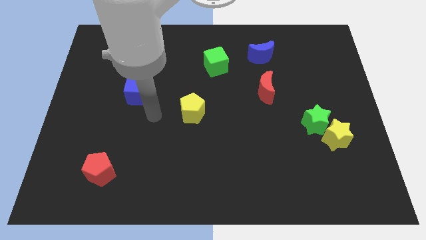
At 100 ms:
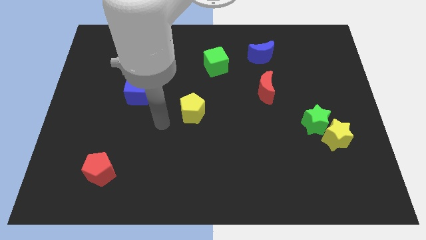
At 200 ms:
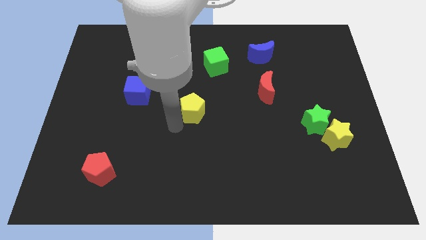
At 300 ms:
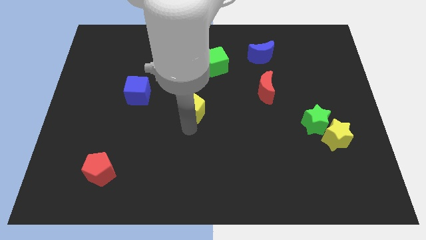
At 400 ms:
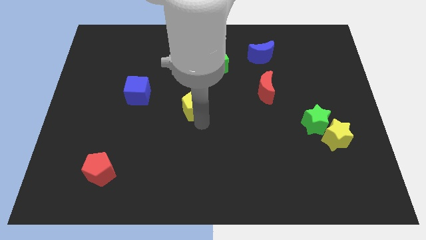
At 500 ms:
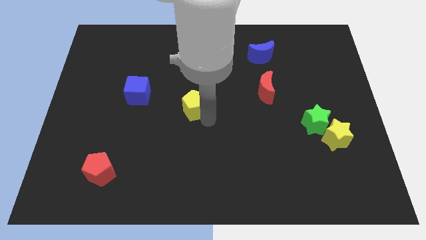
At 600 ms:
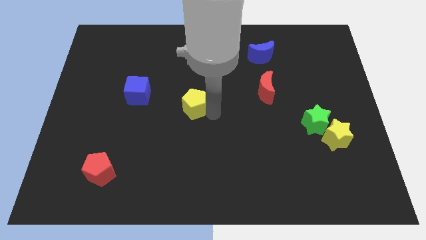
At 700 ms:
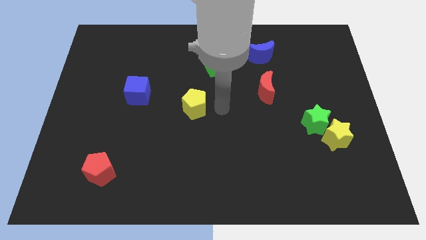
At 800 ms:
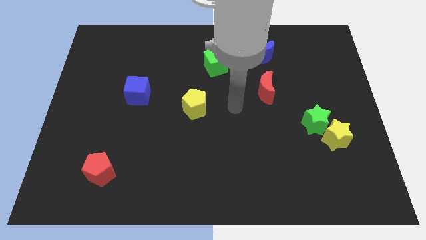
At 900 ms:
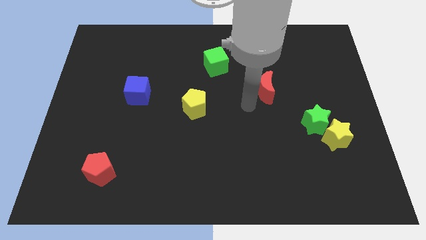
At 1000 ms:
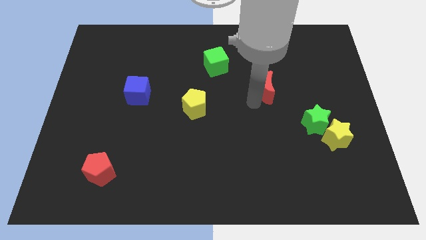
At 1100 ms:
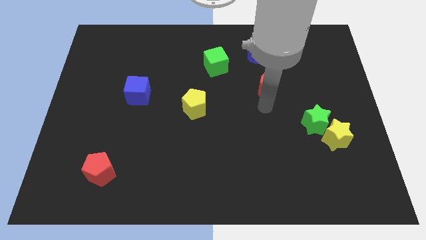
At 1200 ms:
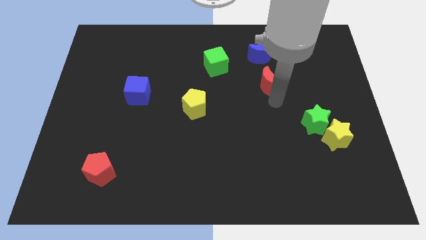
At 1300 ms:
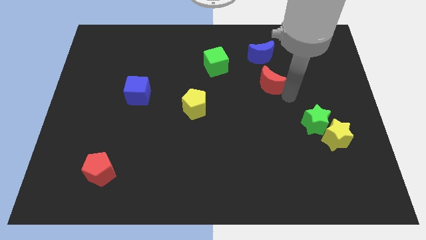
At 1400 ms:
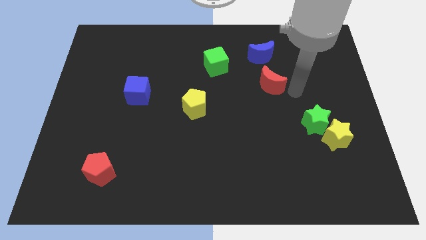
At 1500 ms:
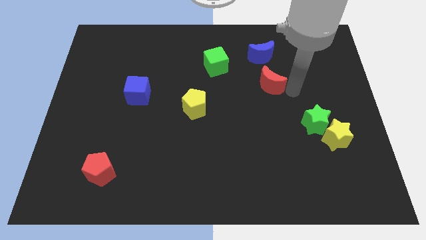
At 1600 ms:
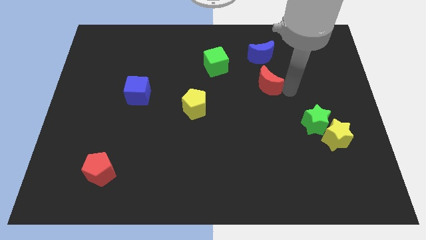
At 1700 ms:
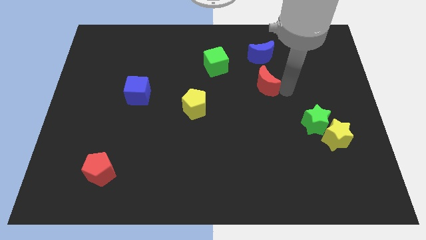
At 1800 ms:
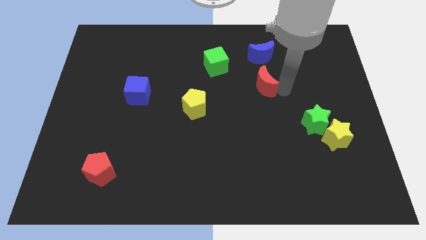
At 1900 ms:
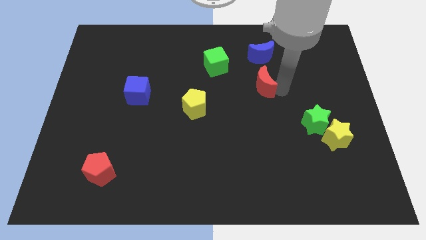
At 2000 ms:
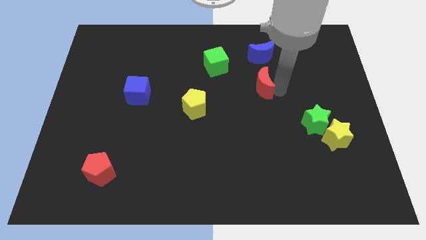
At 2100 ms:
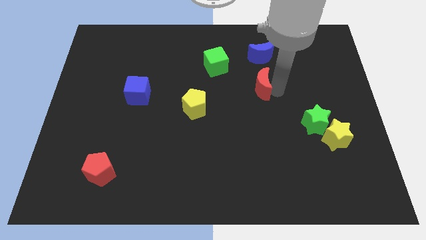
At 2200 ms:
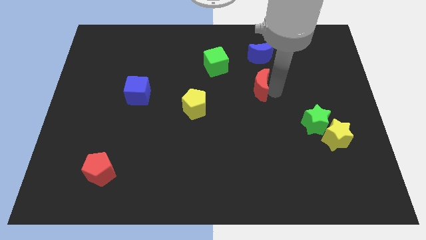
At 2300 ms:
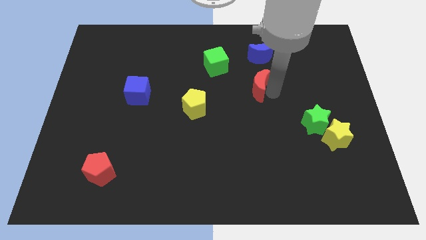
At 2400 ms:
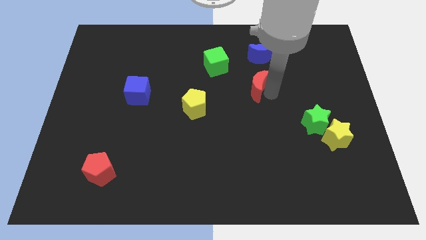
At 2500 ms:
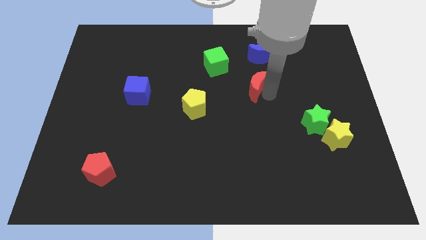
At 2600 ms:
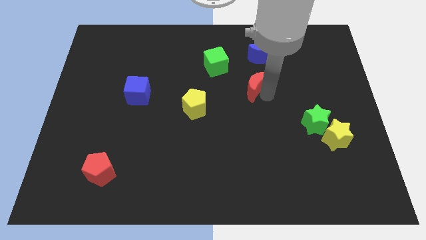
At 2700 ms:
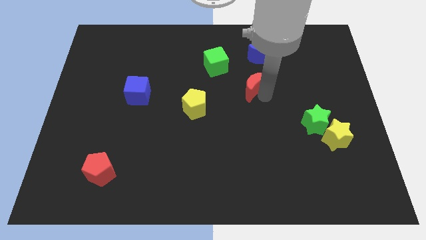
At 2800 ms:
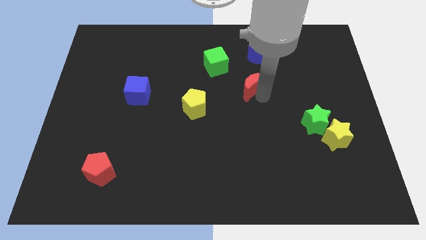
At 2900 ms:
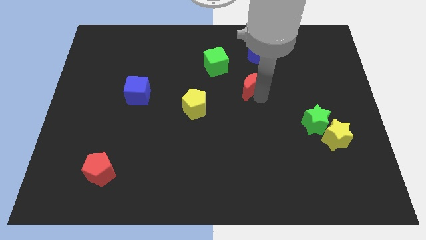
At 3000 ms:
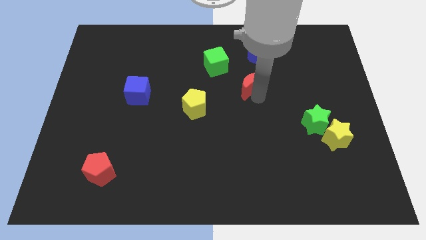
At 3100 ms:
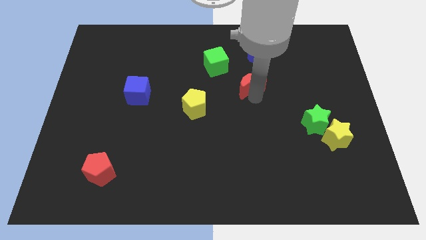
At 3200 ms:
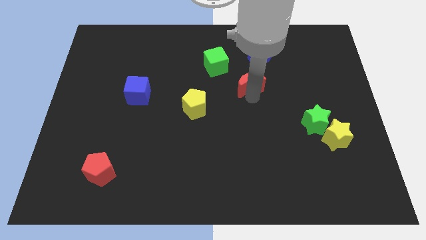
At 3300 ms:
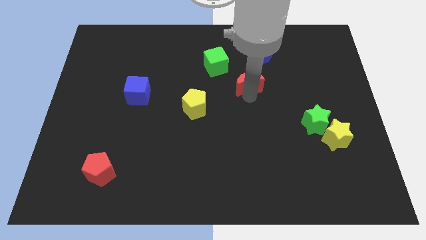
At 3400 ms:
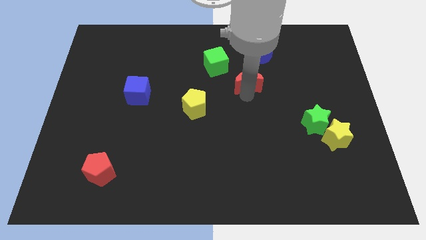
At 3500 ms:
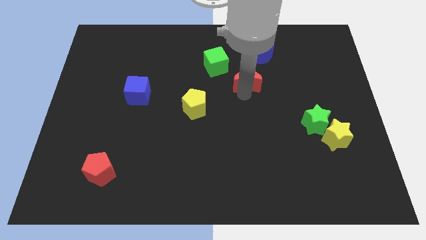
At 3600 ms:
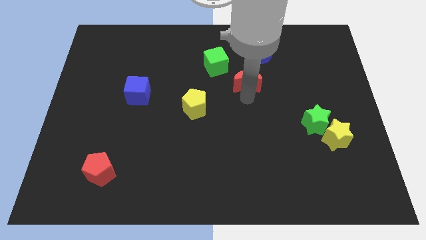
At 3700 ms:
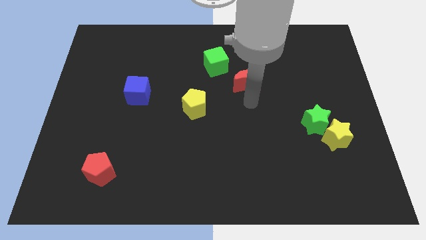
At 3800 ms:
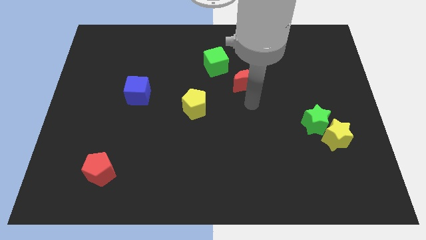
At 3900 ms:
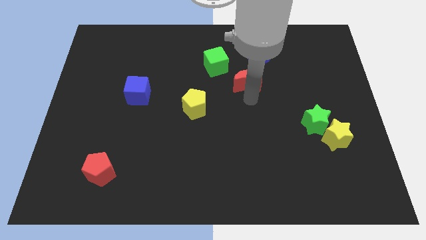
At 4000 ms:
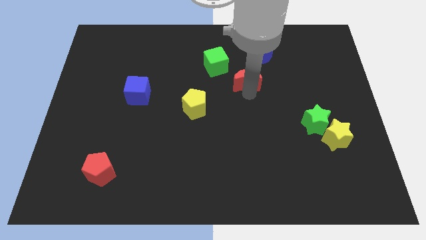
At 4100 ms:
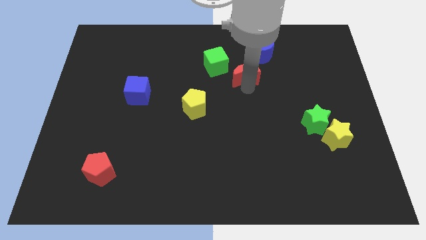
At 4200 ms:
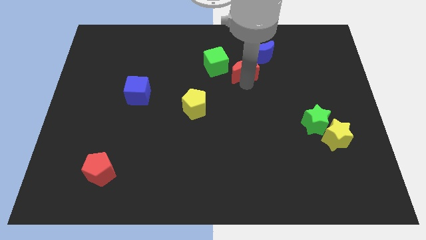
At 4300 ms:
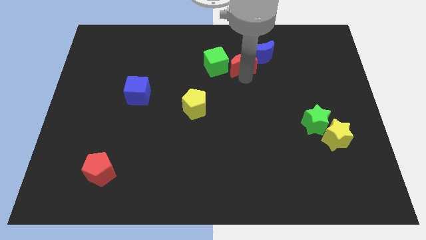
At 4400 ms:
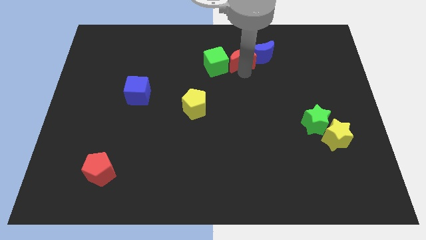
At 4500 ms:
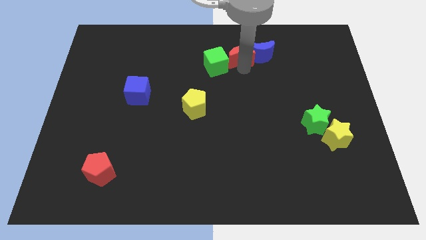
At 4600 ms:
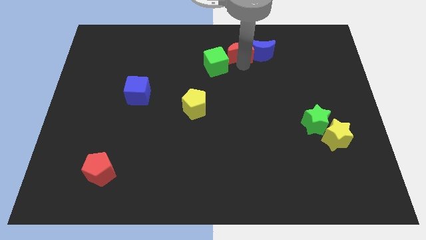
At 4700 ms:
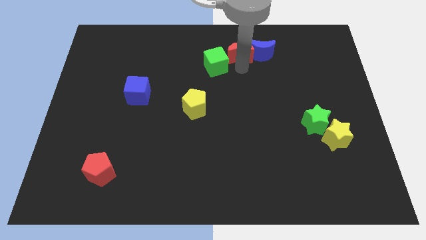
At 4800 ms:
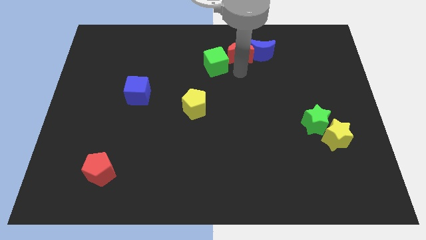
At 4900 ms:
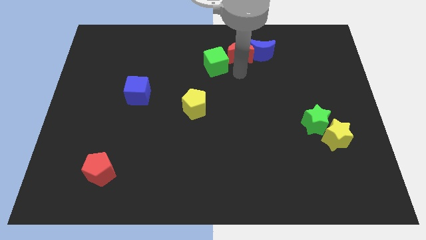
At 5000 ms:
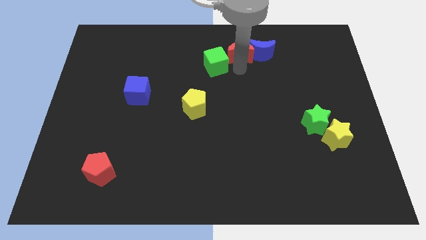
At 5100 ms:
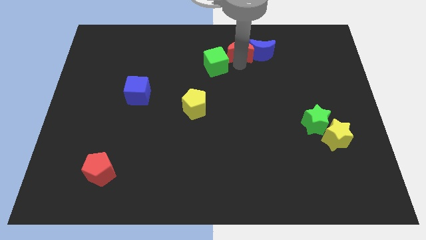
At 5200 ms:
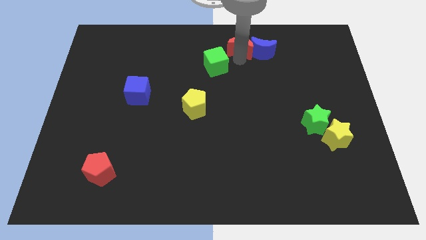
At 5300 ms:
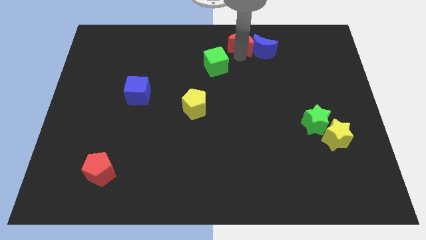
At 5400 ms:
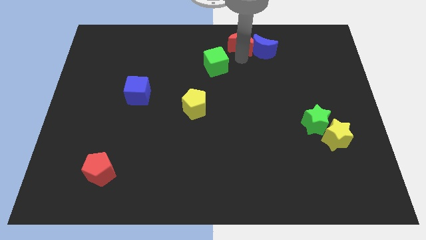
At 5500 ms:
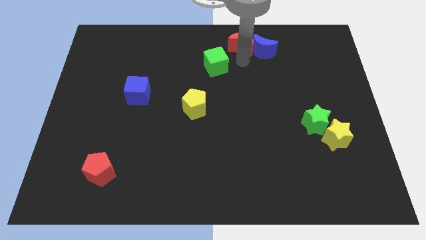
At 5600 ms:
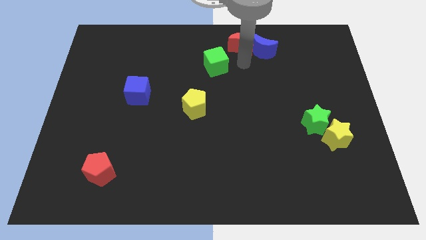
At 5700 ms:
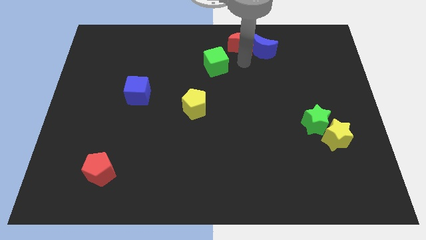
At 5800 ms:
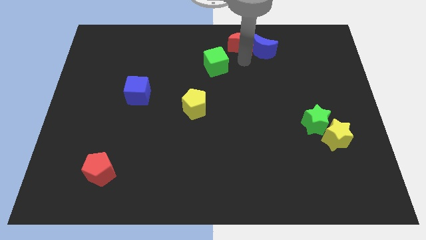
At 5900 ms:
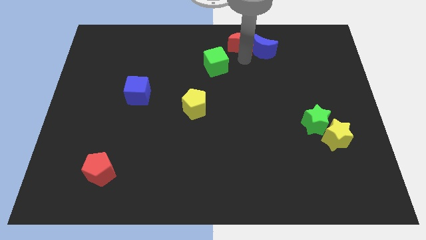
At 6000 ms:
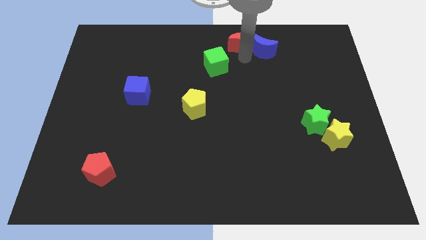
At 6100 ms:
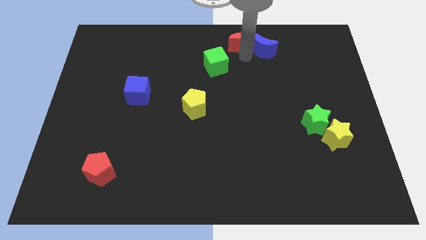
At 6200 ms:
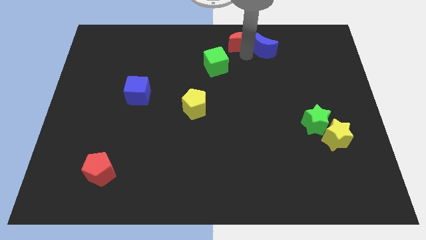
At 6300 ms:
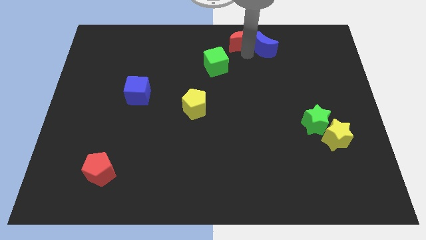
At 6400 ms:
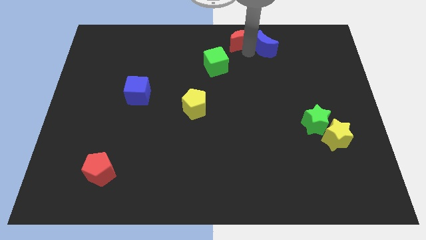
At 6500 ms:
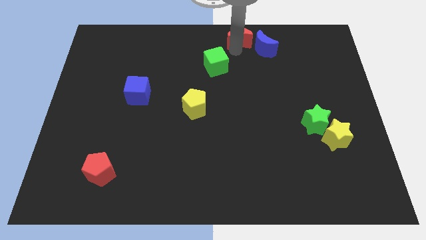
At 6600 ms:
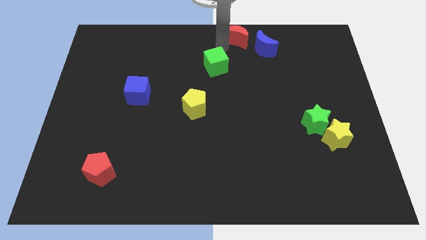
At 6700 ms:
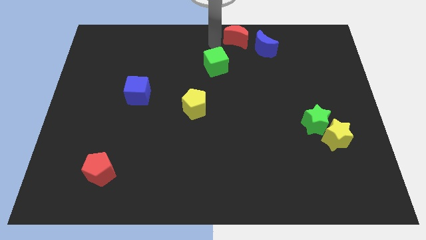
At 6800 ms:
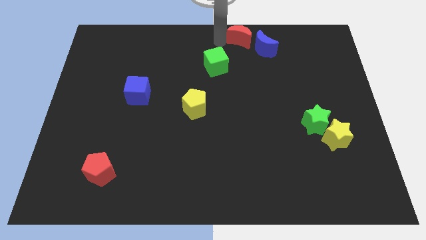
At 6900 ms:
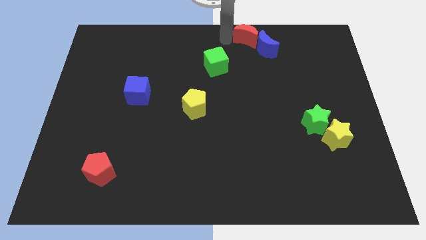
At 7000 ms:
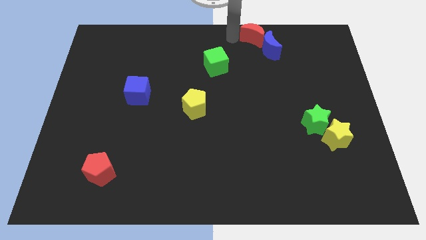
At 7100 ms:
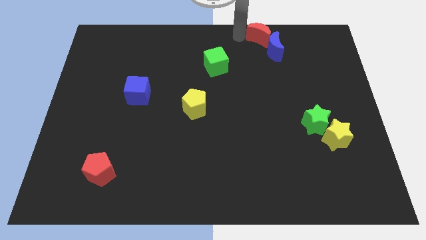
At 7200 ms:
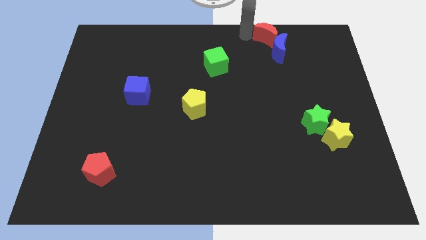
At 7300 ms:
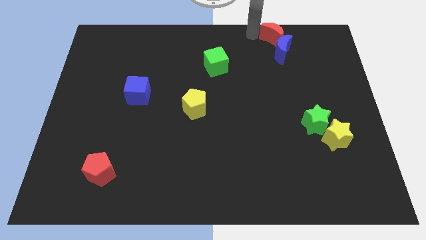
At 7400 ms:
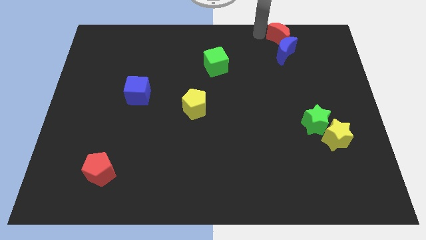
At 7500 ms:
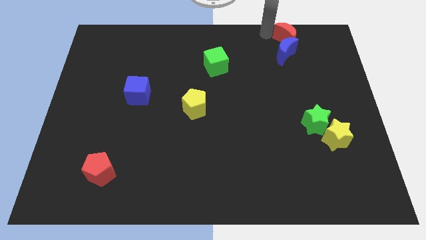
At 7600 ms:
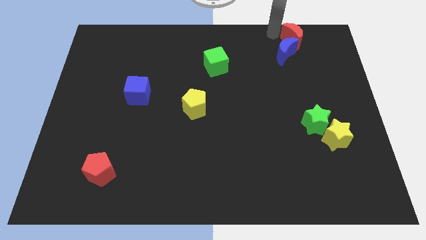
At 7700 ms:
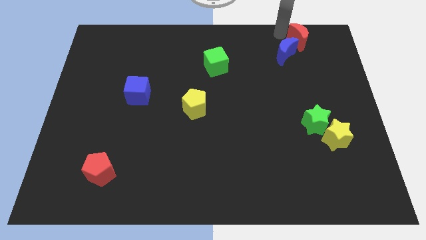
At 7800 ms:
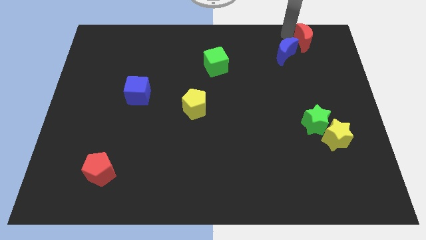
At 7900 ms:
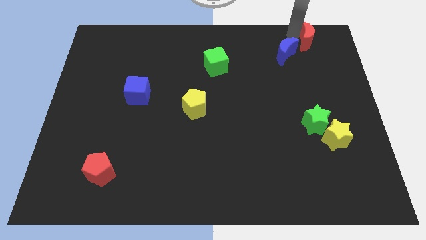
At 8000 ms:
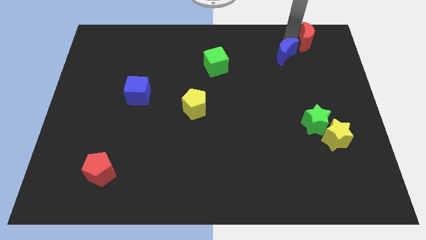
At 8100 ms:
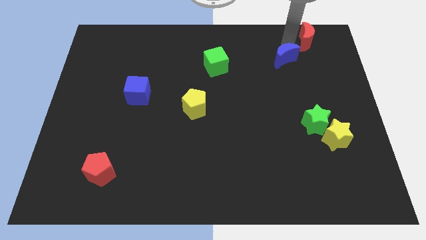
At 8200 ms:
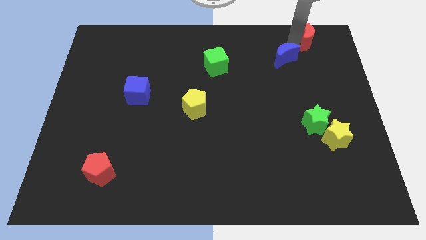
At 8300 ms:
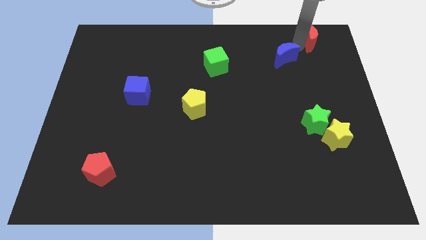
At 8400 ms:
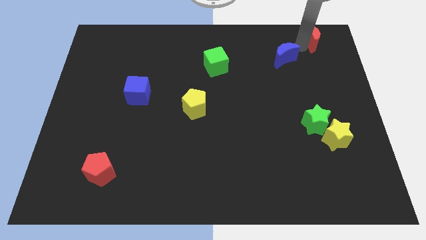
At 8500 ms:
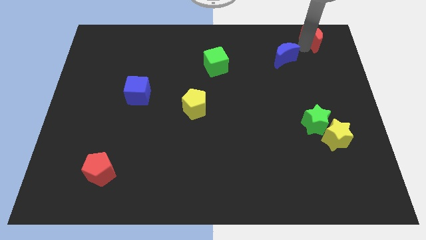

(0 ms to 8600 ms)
move the red moon to the upper right corner
